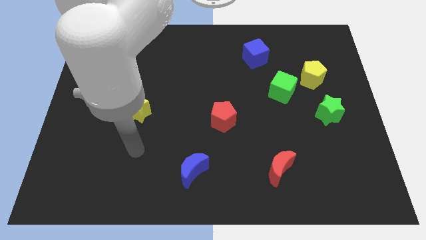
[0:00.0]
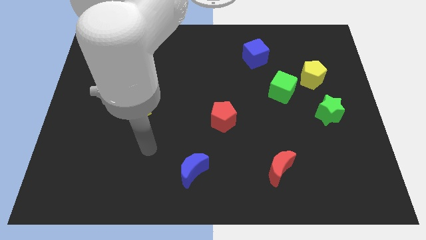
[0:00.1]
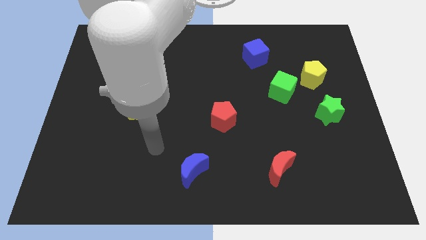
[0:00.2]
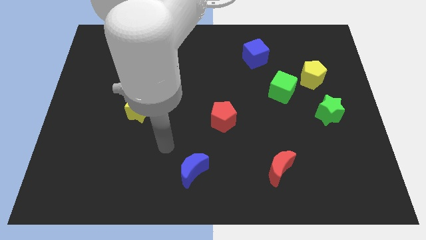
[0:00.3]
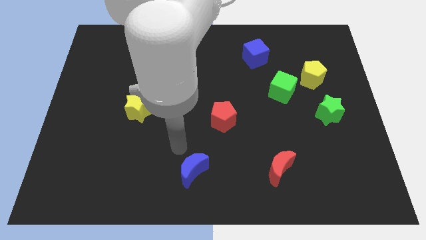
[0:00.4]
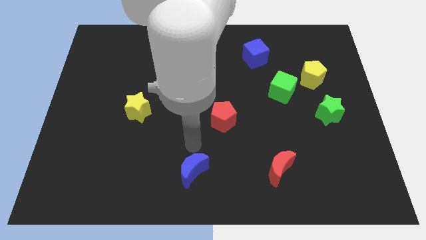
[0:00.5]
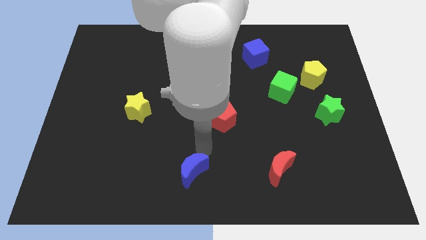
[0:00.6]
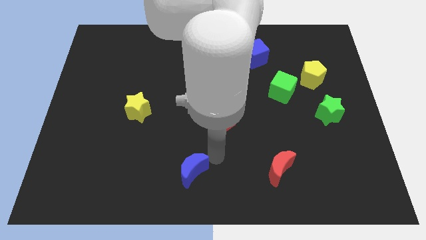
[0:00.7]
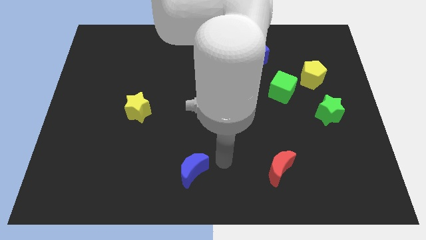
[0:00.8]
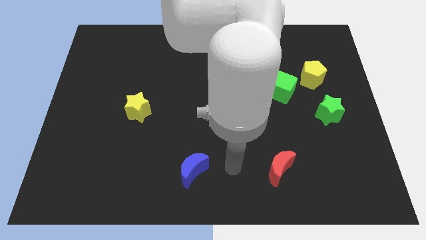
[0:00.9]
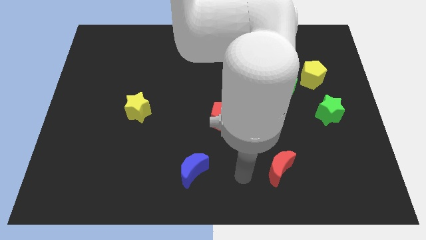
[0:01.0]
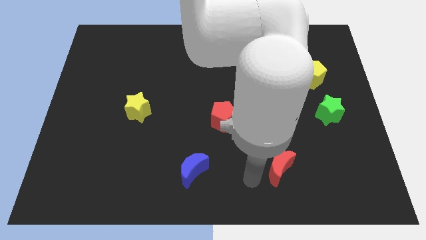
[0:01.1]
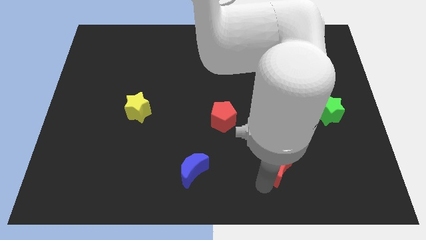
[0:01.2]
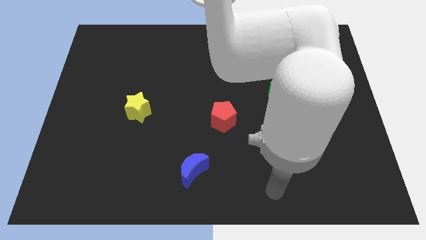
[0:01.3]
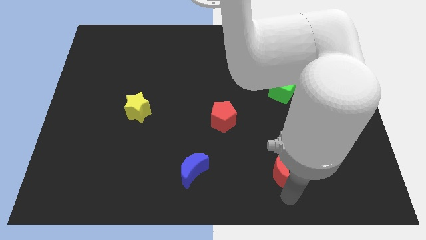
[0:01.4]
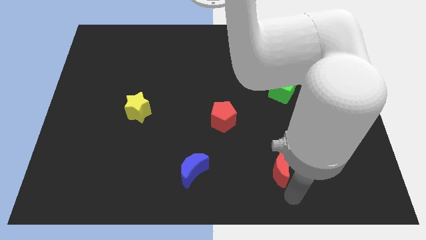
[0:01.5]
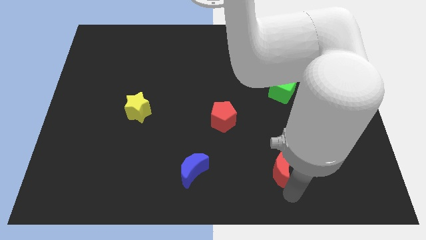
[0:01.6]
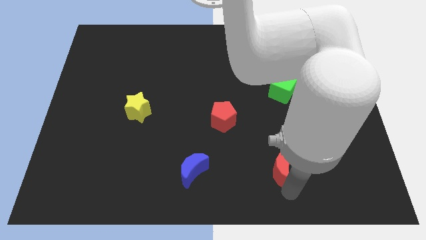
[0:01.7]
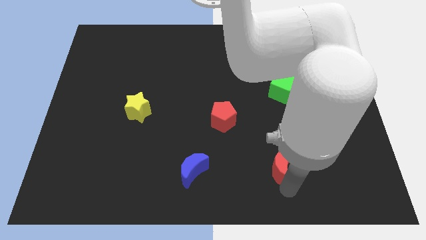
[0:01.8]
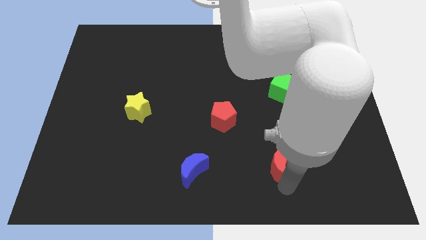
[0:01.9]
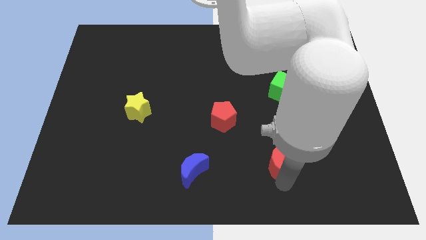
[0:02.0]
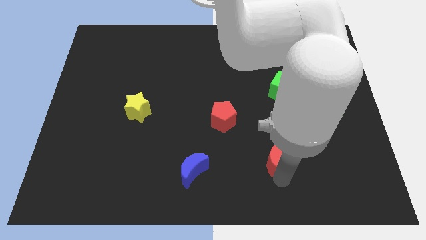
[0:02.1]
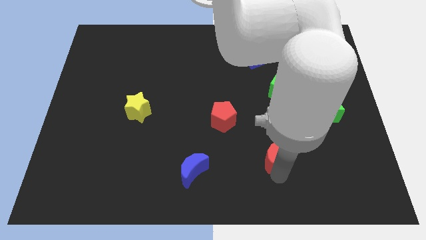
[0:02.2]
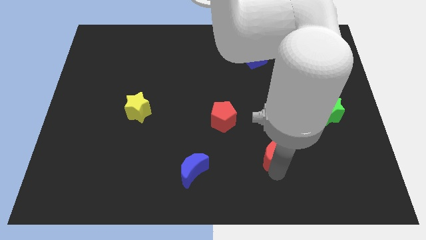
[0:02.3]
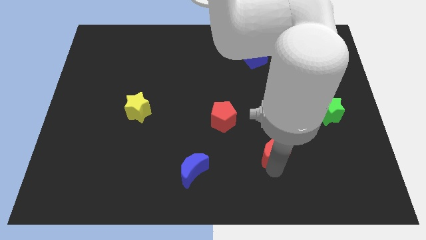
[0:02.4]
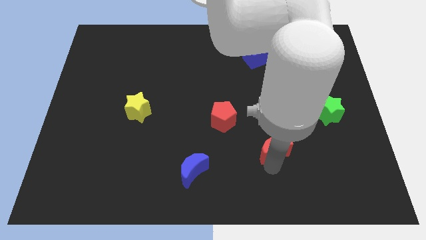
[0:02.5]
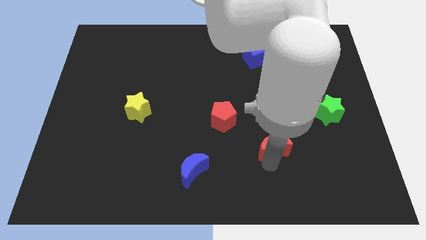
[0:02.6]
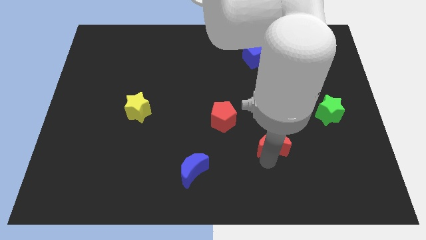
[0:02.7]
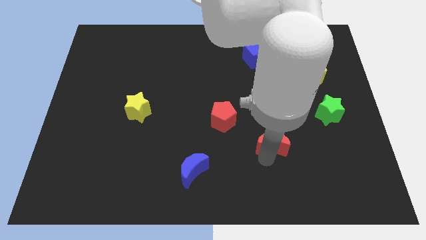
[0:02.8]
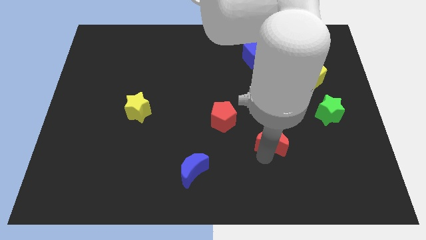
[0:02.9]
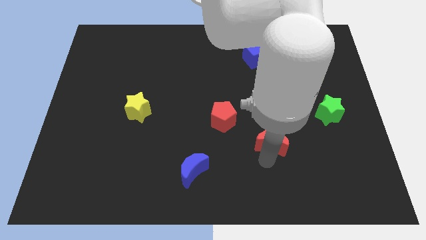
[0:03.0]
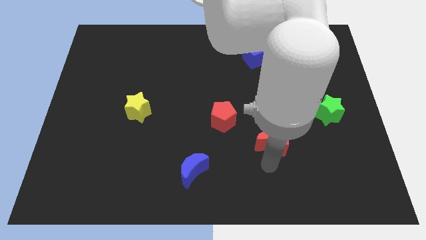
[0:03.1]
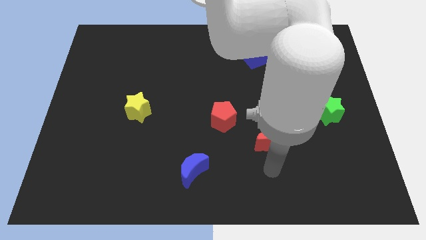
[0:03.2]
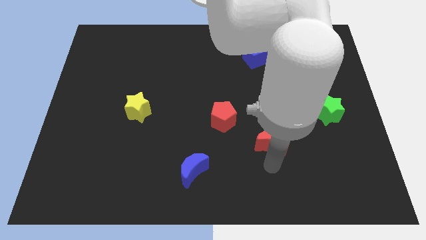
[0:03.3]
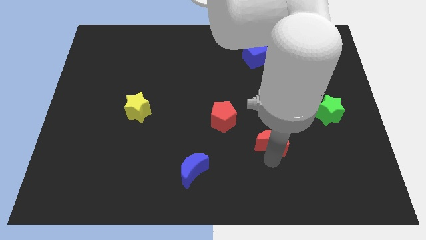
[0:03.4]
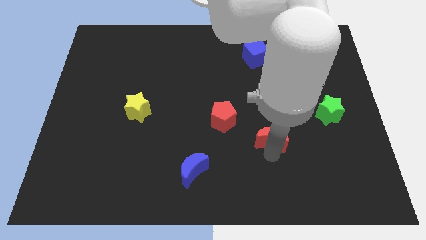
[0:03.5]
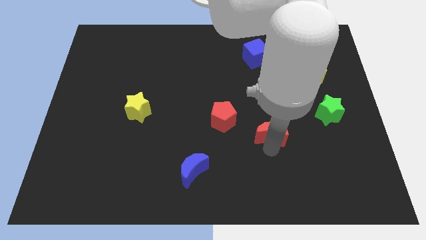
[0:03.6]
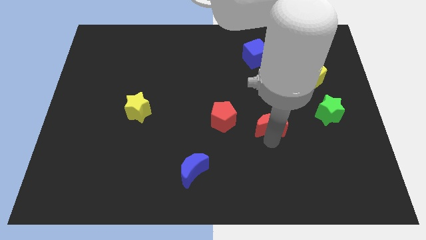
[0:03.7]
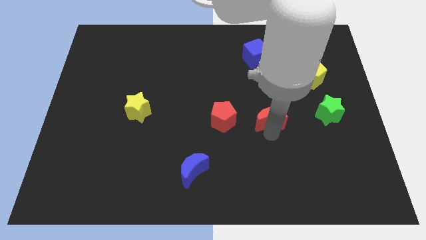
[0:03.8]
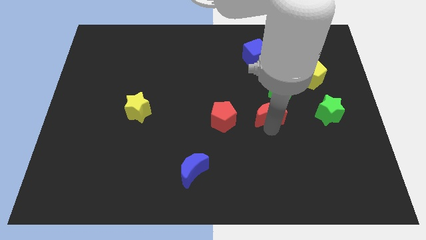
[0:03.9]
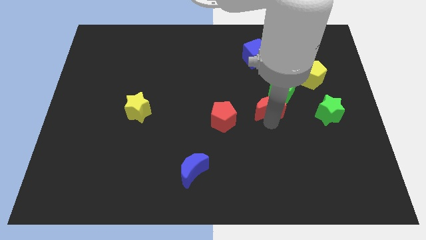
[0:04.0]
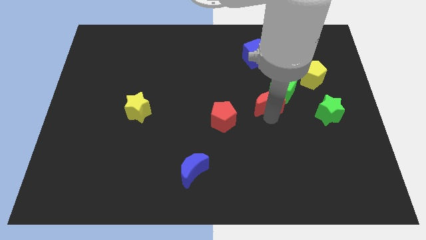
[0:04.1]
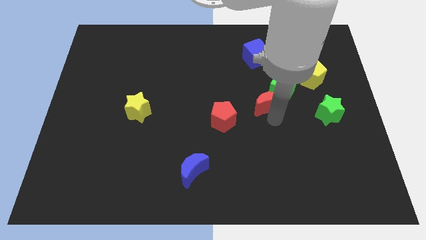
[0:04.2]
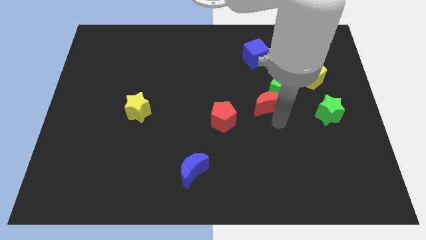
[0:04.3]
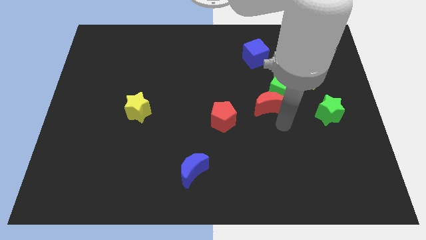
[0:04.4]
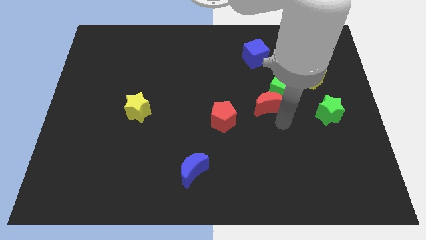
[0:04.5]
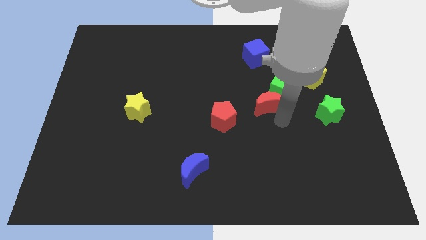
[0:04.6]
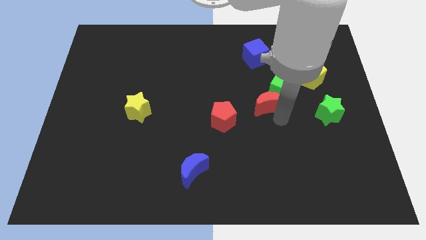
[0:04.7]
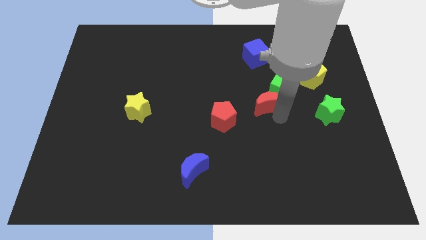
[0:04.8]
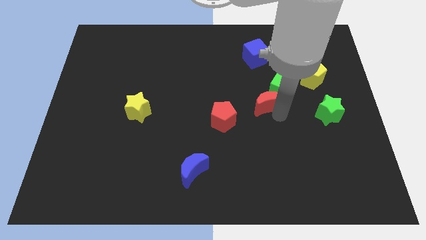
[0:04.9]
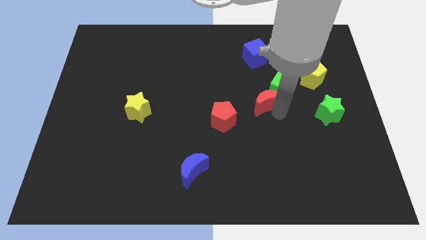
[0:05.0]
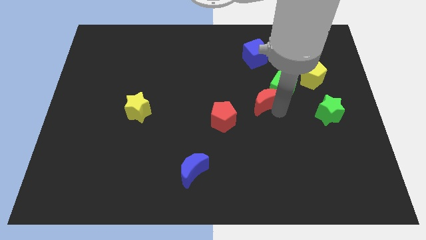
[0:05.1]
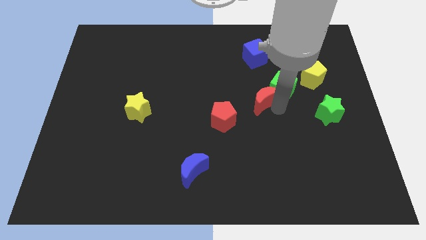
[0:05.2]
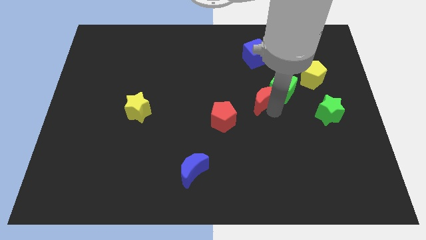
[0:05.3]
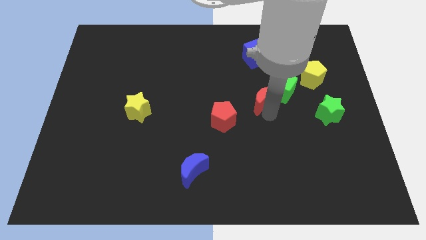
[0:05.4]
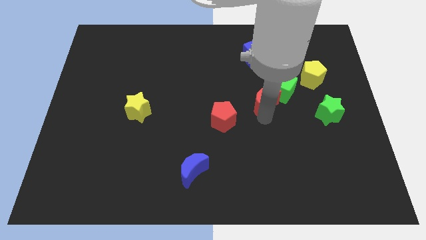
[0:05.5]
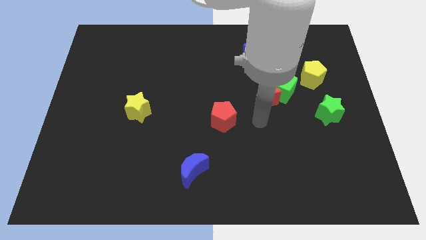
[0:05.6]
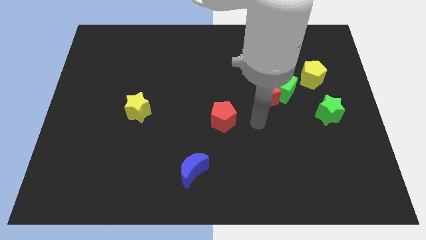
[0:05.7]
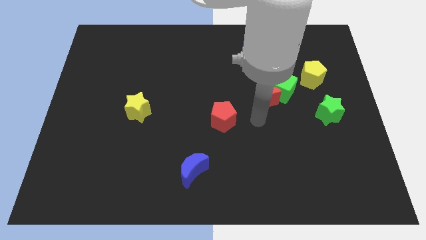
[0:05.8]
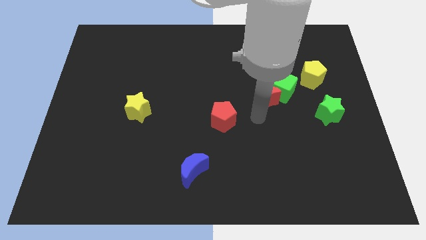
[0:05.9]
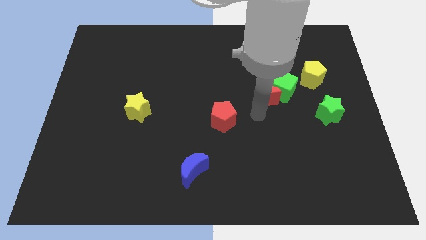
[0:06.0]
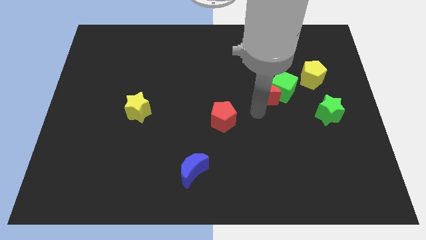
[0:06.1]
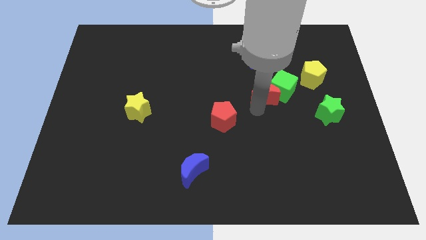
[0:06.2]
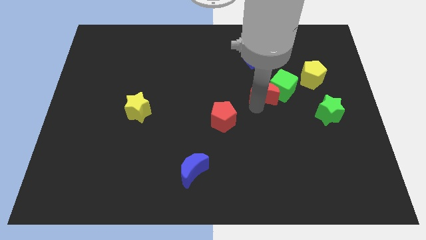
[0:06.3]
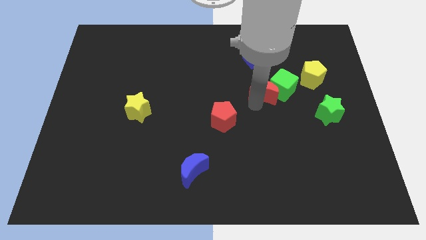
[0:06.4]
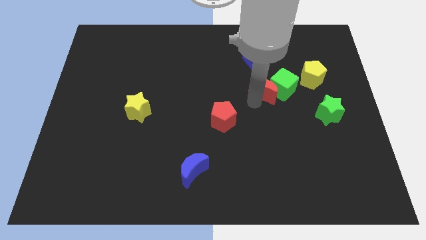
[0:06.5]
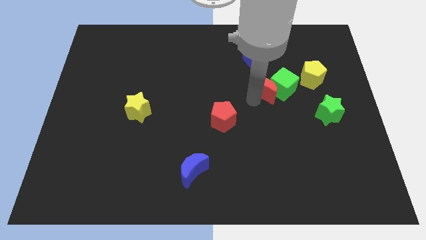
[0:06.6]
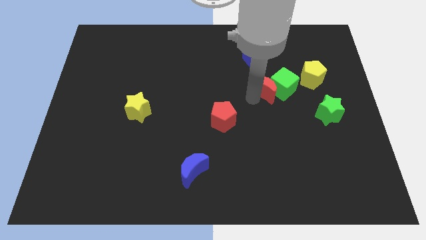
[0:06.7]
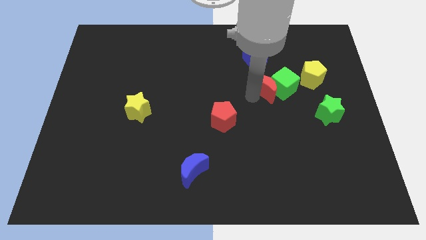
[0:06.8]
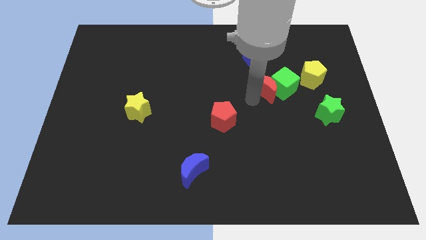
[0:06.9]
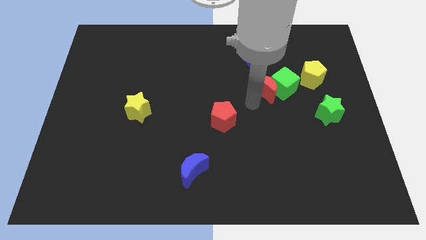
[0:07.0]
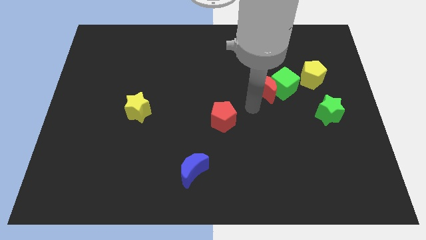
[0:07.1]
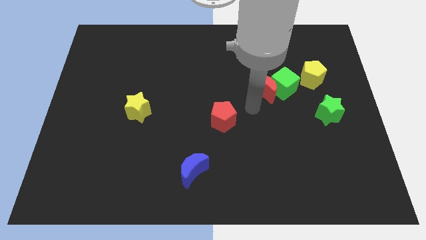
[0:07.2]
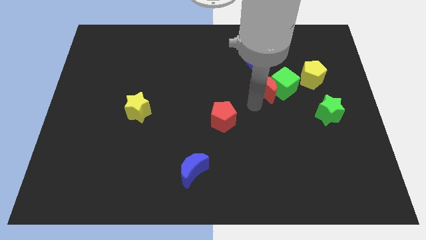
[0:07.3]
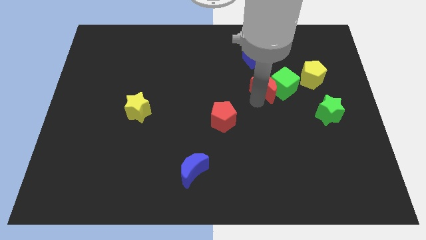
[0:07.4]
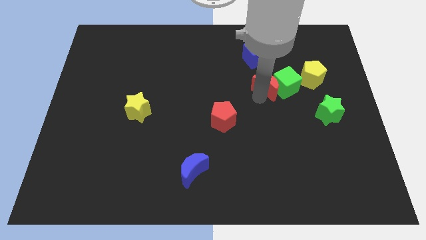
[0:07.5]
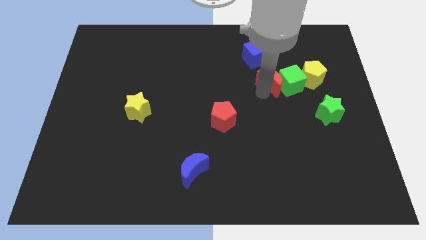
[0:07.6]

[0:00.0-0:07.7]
push the red moon to the bottom right side of the blue cube
